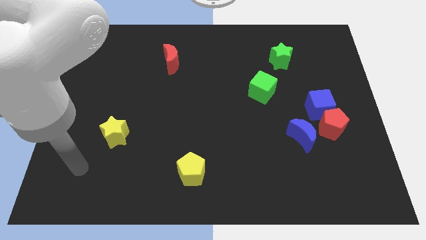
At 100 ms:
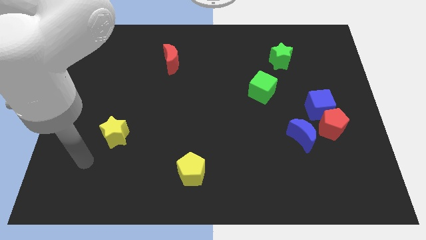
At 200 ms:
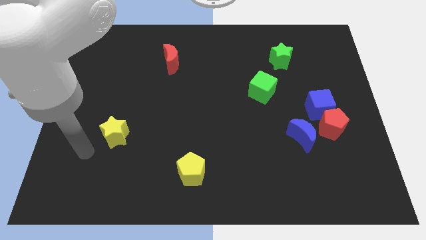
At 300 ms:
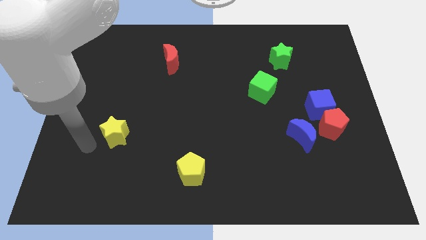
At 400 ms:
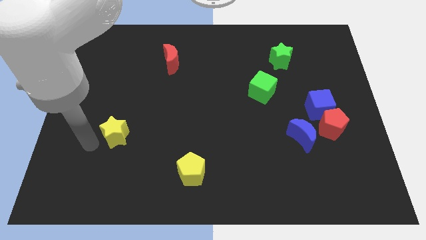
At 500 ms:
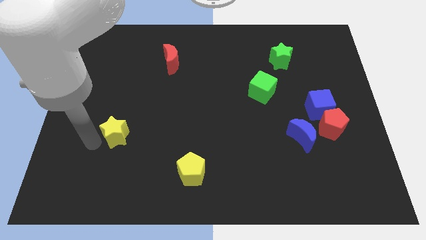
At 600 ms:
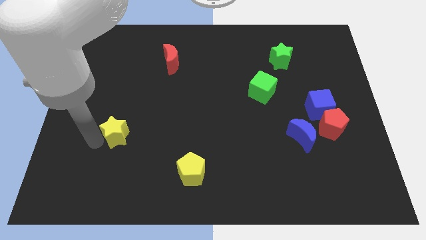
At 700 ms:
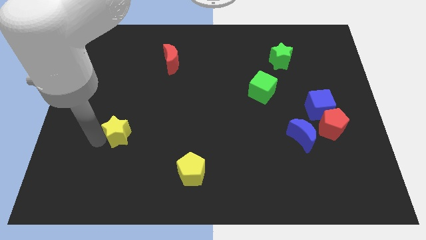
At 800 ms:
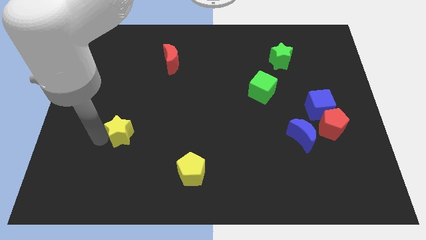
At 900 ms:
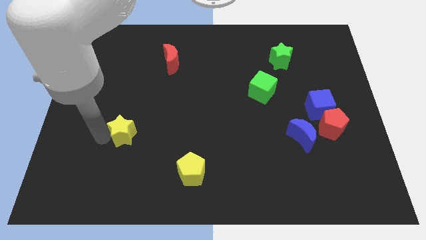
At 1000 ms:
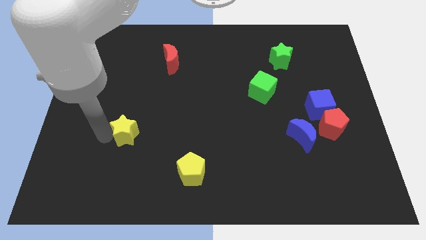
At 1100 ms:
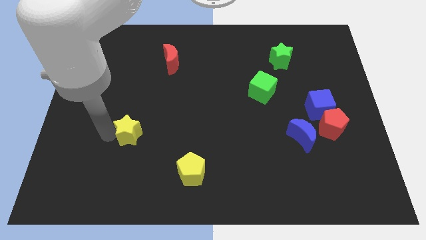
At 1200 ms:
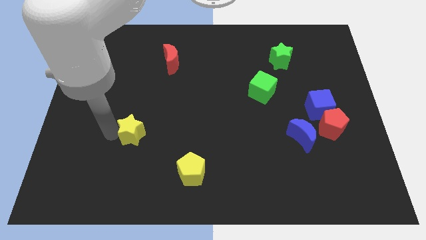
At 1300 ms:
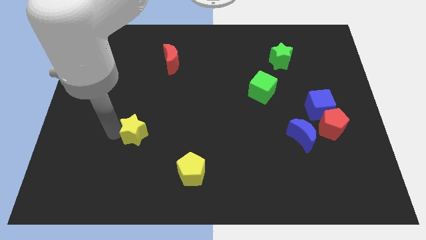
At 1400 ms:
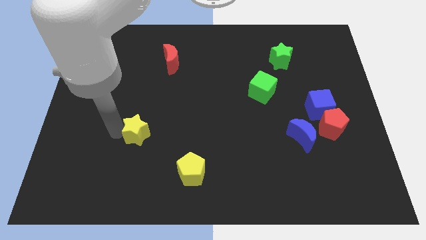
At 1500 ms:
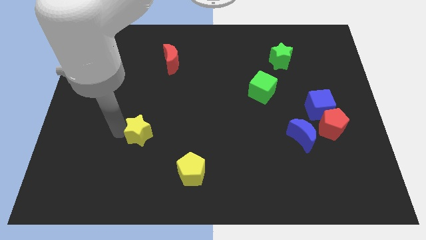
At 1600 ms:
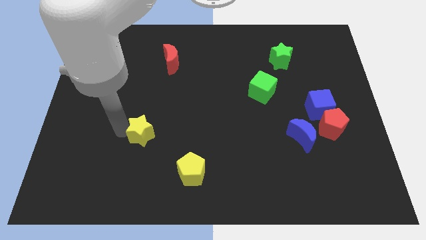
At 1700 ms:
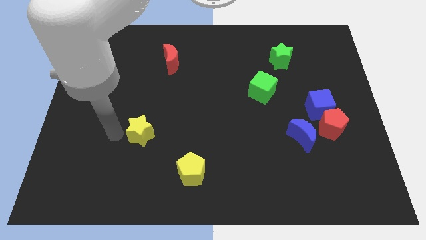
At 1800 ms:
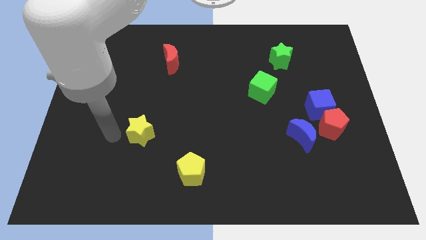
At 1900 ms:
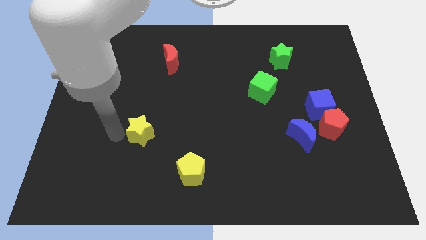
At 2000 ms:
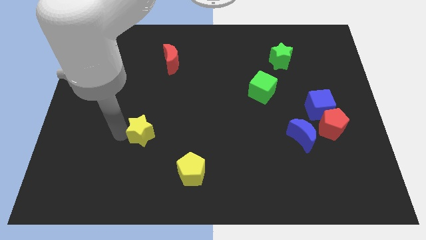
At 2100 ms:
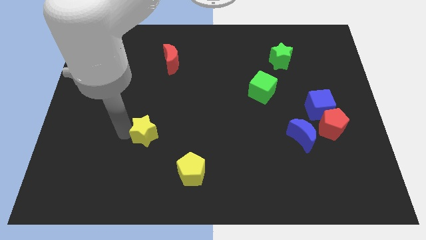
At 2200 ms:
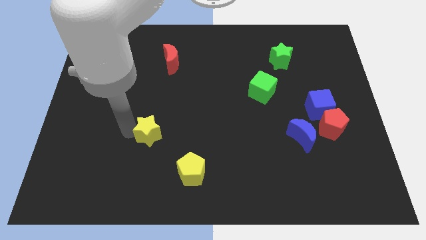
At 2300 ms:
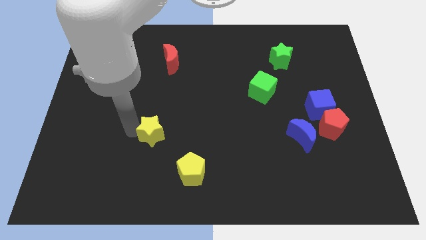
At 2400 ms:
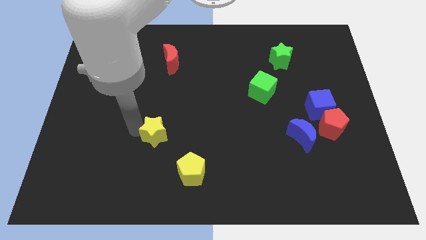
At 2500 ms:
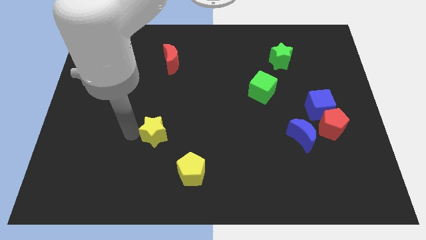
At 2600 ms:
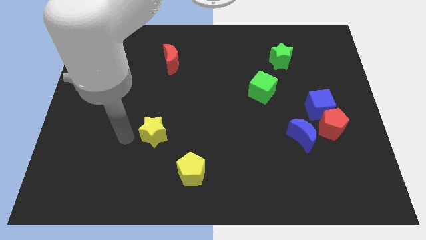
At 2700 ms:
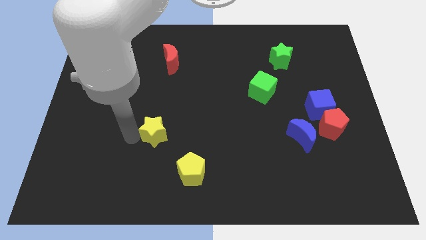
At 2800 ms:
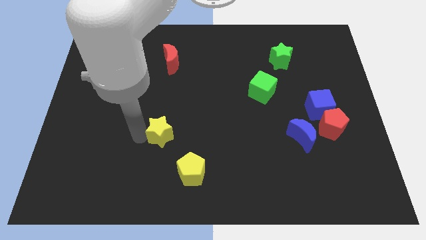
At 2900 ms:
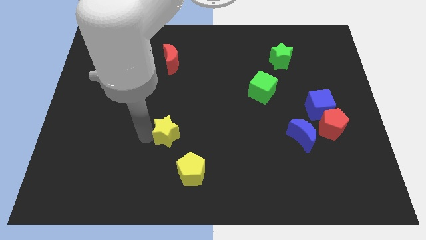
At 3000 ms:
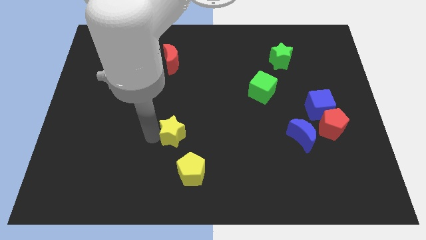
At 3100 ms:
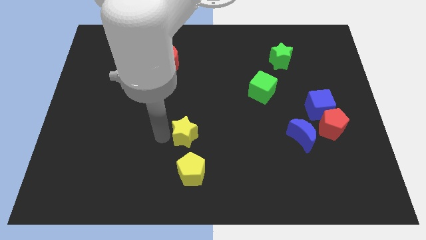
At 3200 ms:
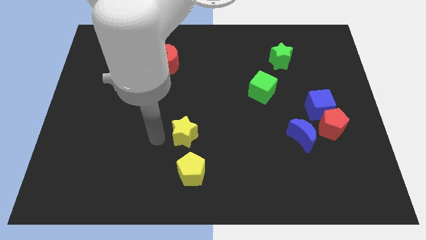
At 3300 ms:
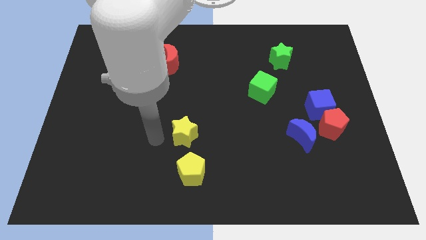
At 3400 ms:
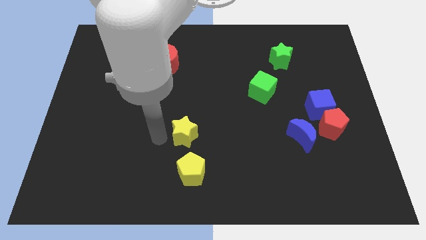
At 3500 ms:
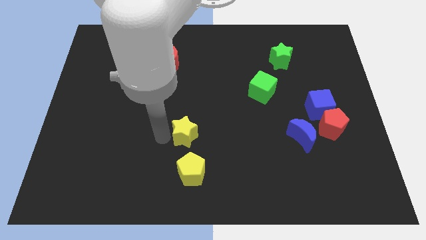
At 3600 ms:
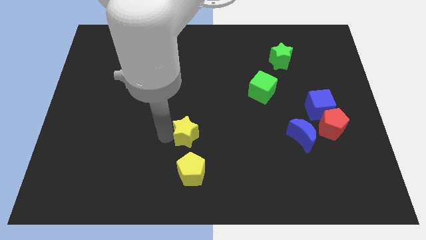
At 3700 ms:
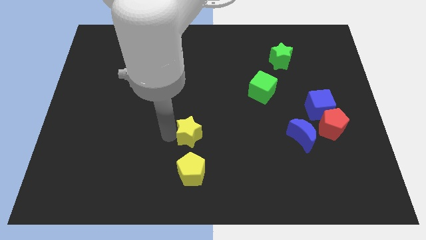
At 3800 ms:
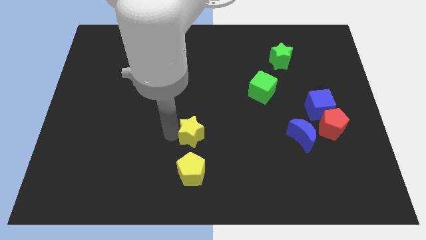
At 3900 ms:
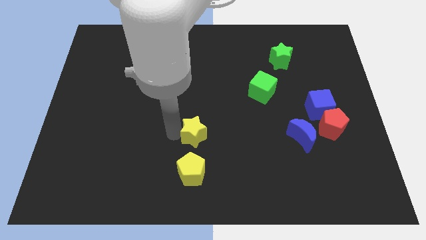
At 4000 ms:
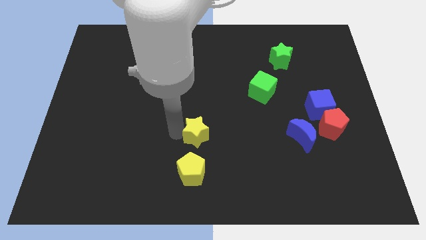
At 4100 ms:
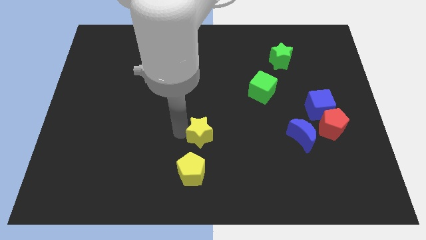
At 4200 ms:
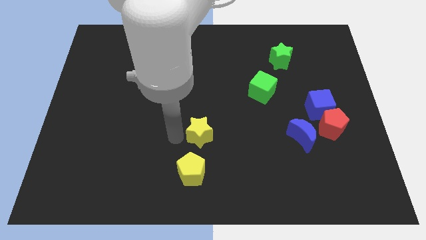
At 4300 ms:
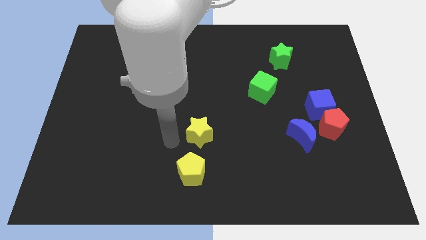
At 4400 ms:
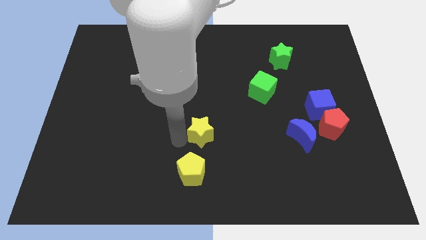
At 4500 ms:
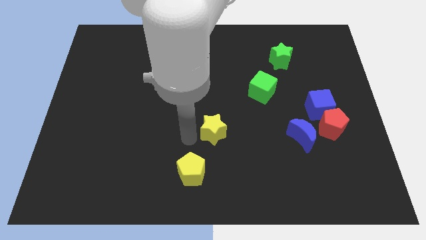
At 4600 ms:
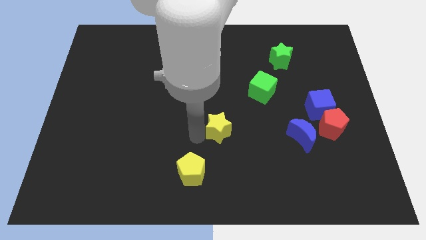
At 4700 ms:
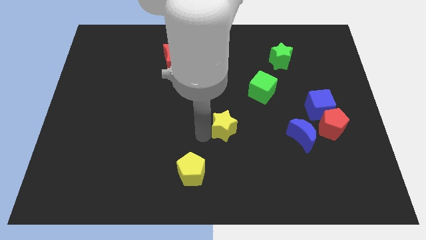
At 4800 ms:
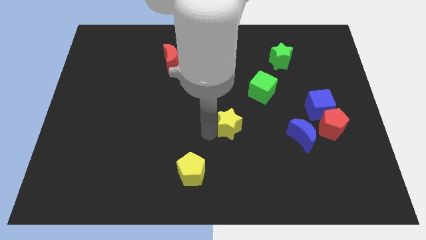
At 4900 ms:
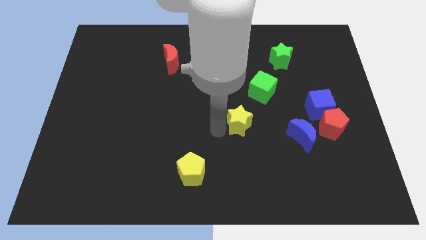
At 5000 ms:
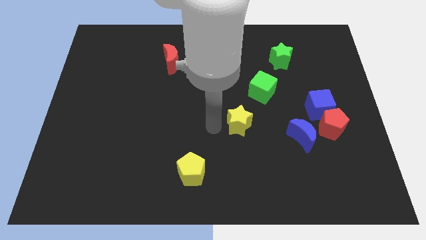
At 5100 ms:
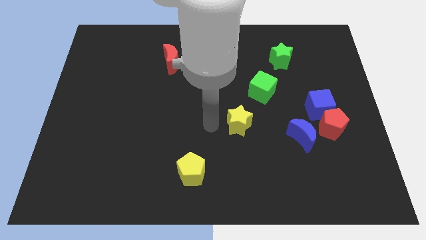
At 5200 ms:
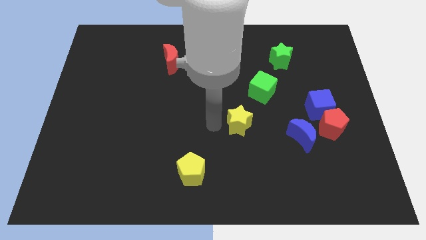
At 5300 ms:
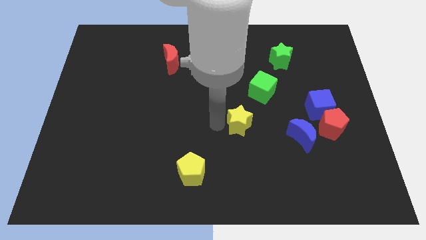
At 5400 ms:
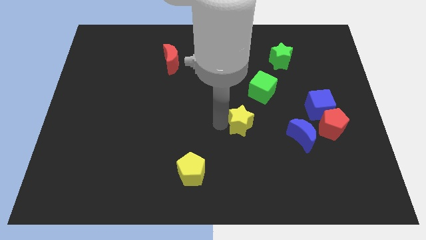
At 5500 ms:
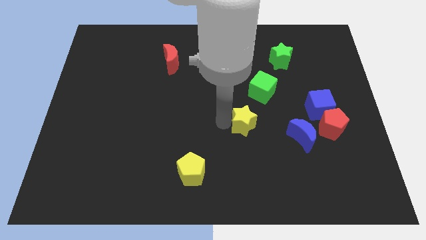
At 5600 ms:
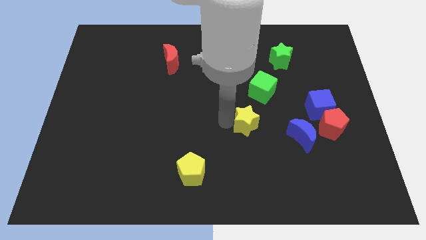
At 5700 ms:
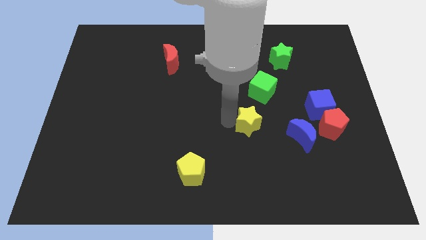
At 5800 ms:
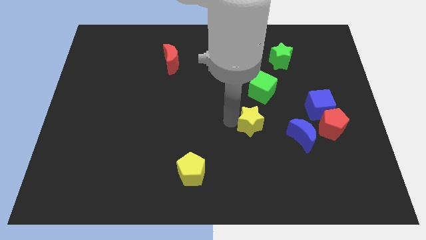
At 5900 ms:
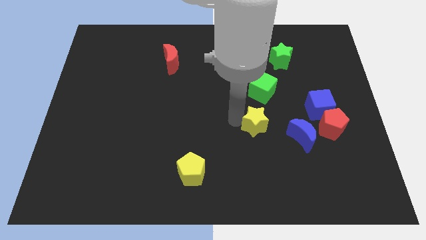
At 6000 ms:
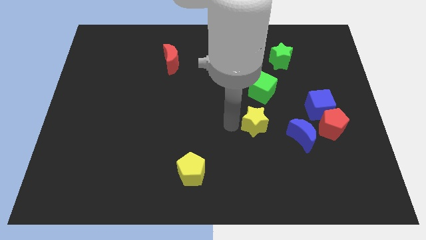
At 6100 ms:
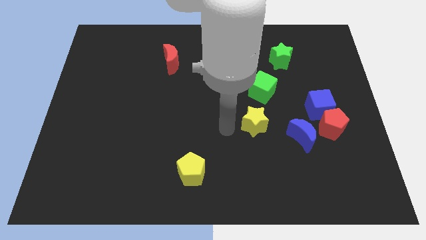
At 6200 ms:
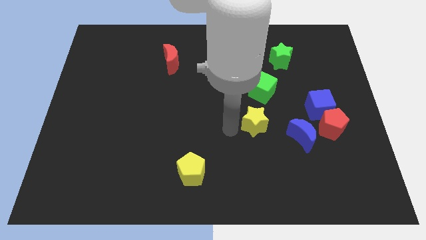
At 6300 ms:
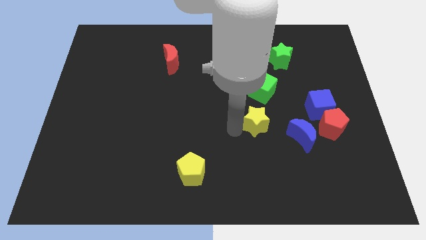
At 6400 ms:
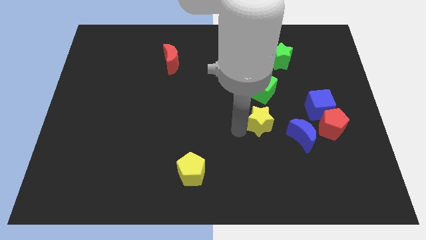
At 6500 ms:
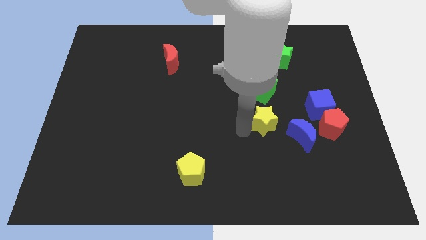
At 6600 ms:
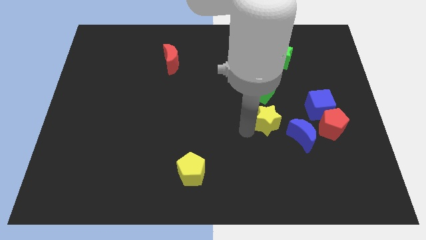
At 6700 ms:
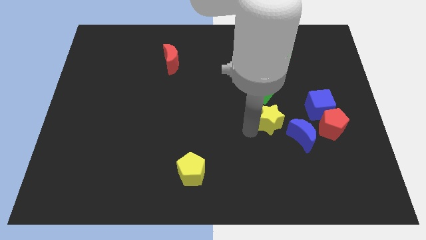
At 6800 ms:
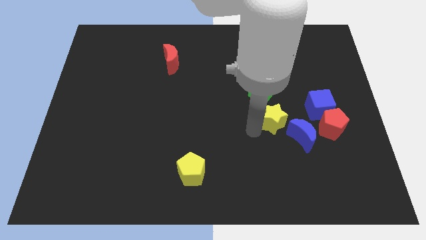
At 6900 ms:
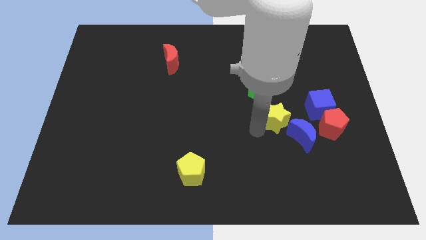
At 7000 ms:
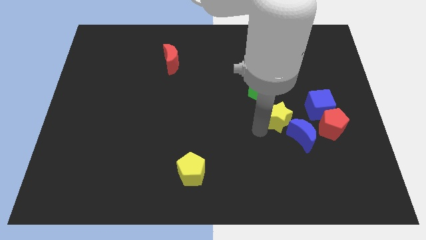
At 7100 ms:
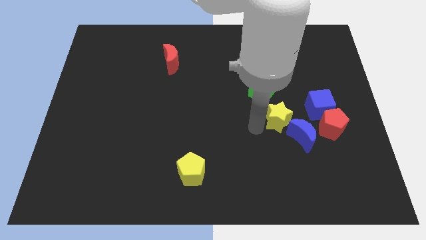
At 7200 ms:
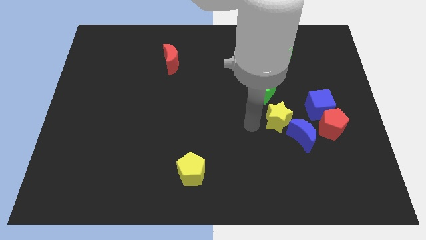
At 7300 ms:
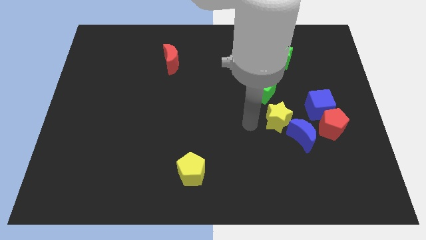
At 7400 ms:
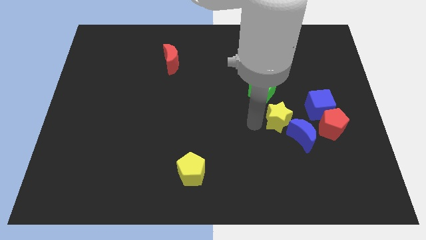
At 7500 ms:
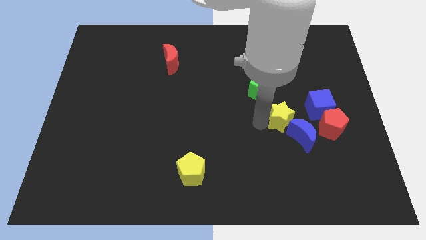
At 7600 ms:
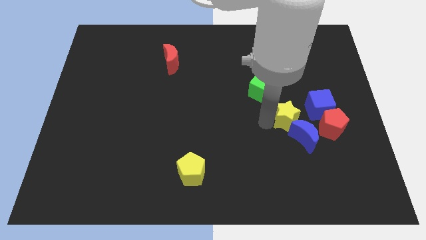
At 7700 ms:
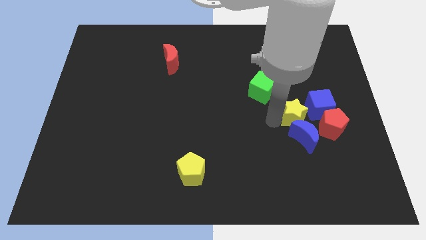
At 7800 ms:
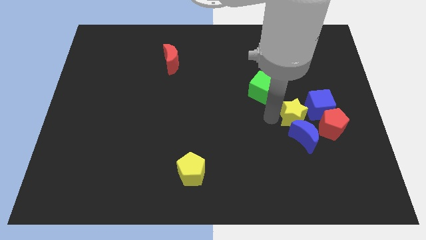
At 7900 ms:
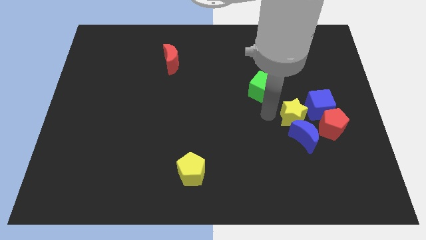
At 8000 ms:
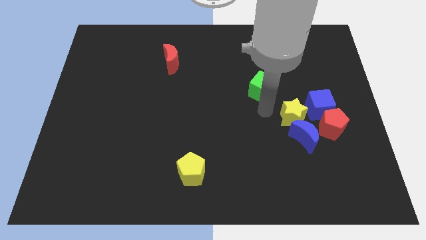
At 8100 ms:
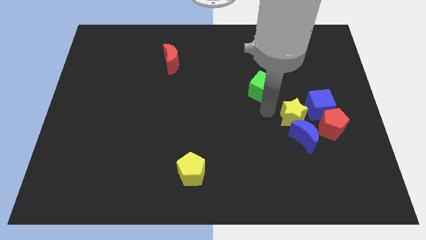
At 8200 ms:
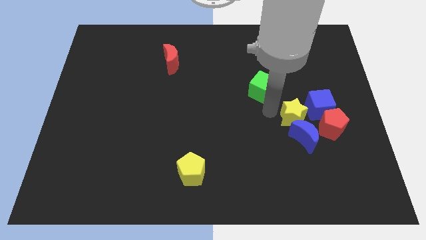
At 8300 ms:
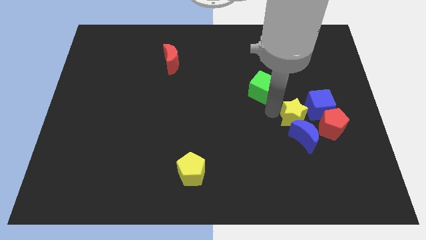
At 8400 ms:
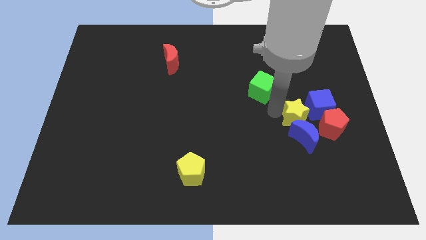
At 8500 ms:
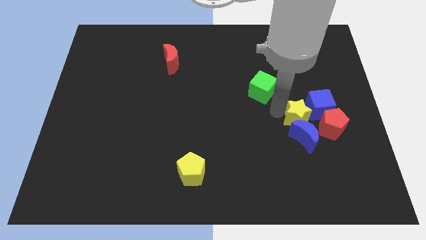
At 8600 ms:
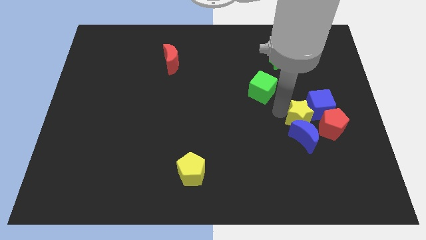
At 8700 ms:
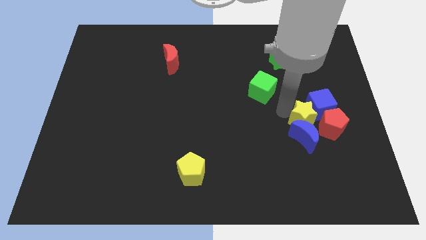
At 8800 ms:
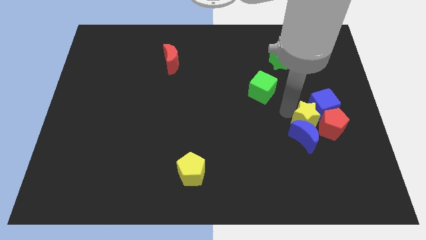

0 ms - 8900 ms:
slide the yellow star close to the red pentagon
